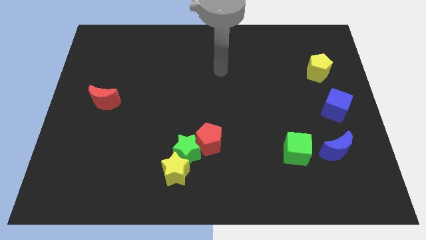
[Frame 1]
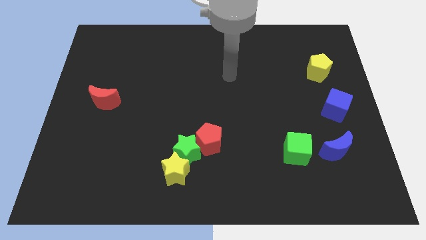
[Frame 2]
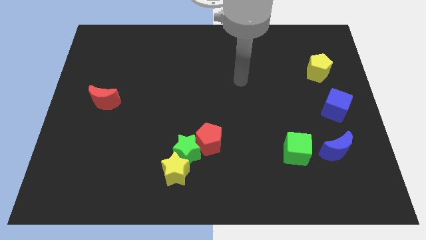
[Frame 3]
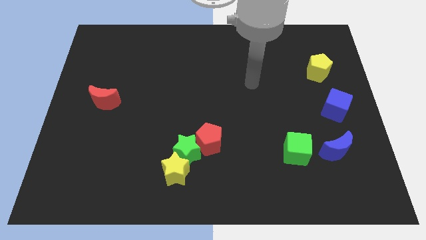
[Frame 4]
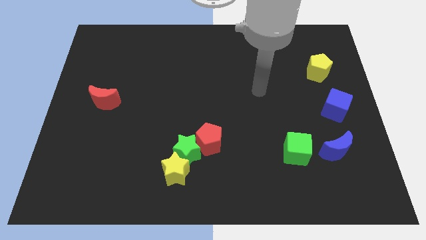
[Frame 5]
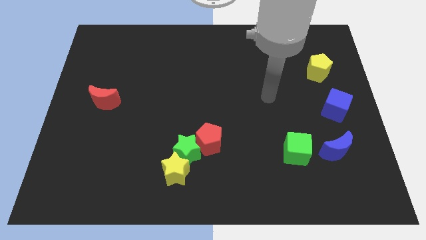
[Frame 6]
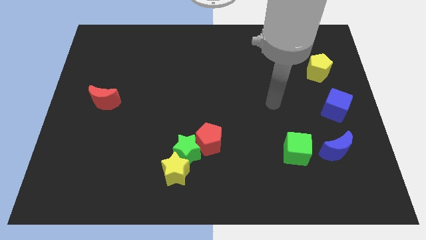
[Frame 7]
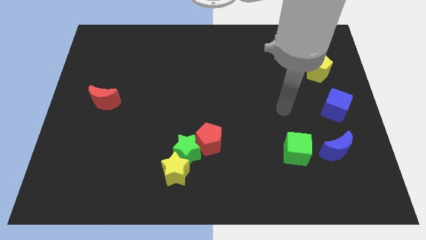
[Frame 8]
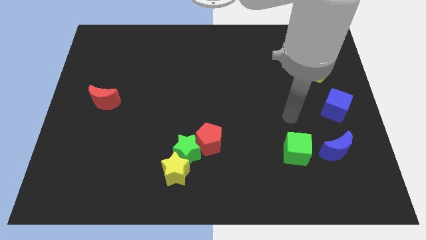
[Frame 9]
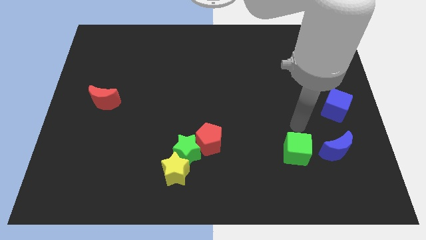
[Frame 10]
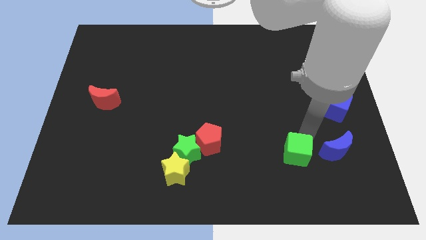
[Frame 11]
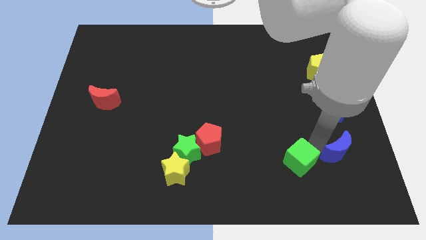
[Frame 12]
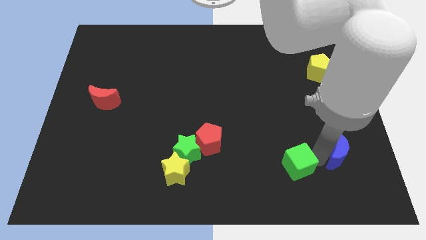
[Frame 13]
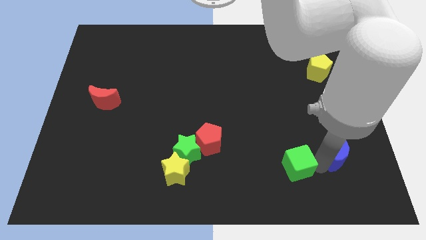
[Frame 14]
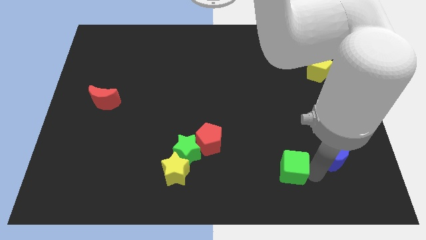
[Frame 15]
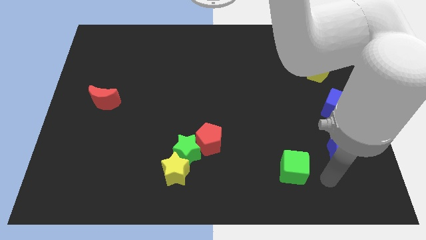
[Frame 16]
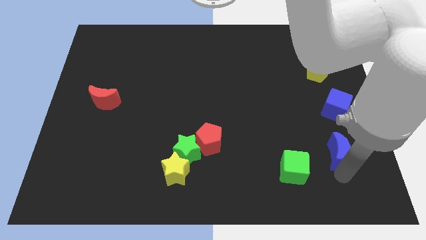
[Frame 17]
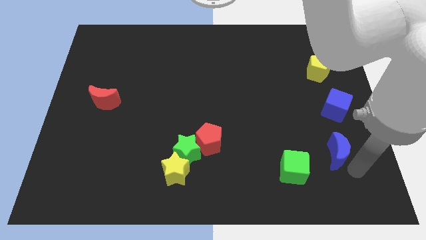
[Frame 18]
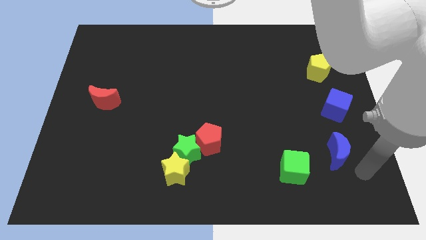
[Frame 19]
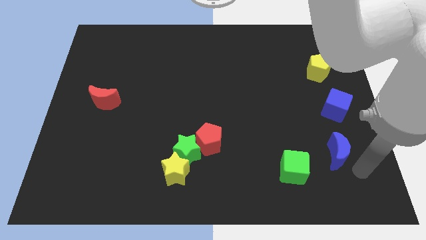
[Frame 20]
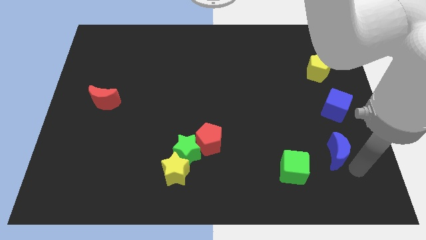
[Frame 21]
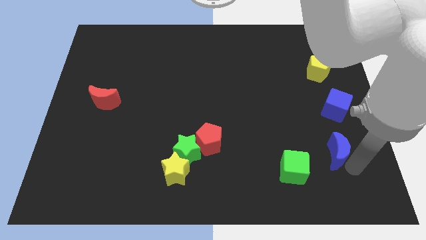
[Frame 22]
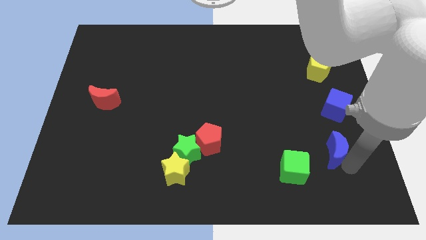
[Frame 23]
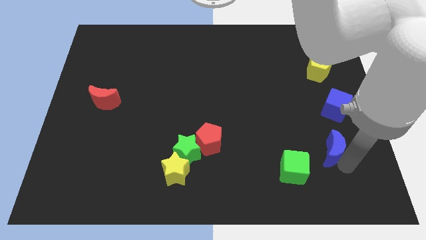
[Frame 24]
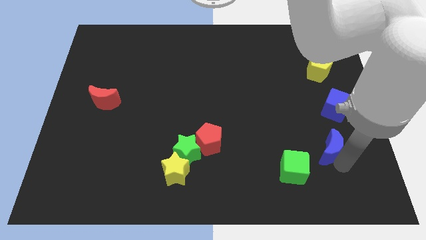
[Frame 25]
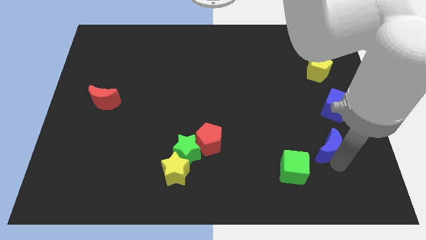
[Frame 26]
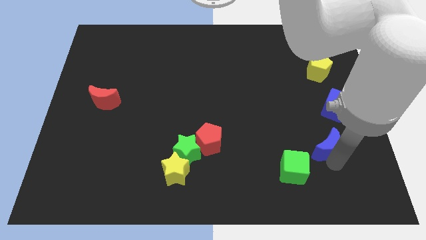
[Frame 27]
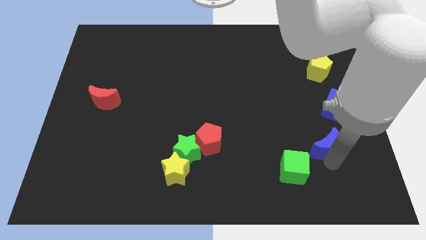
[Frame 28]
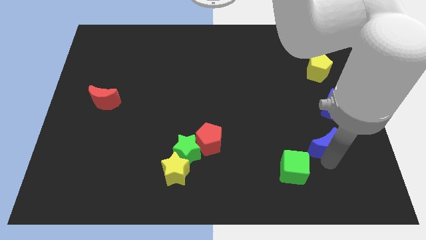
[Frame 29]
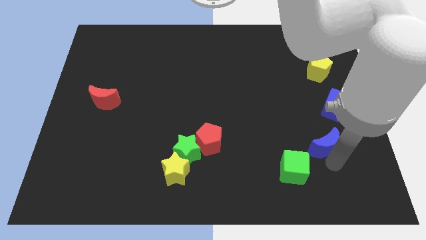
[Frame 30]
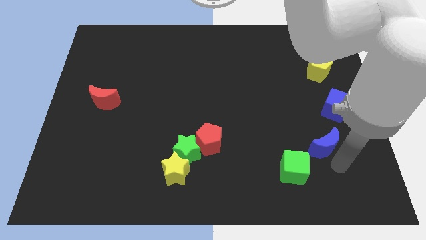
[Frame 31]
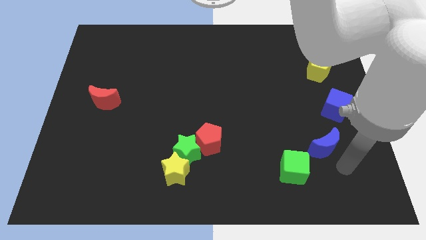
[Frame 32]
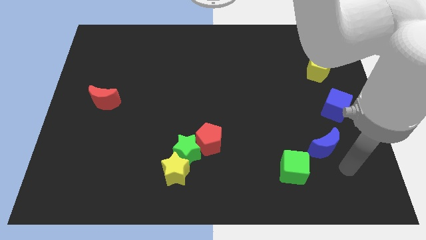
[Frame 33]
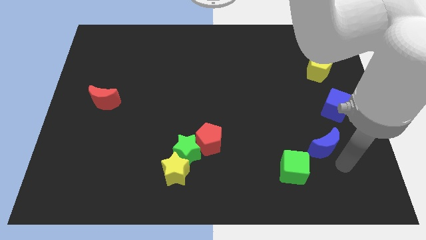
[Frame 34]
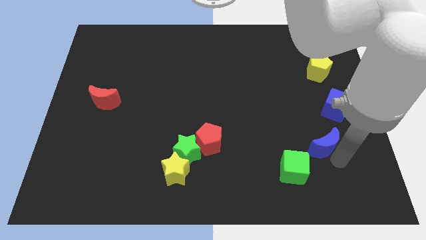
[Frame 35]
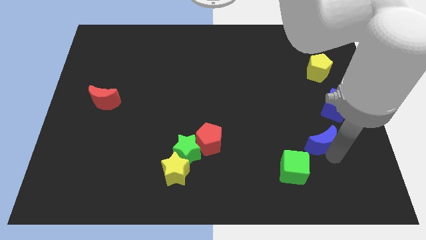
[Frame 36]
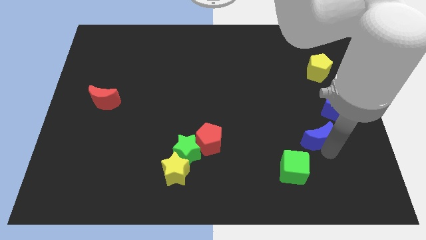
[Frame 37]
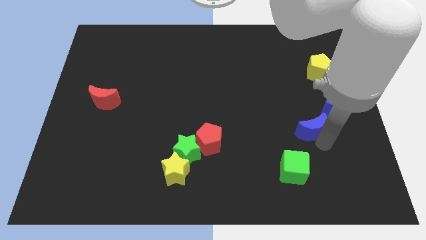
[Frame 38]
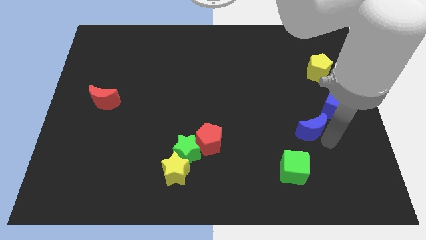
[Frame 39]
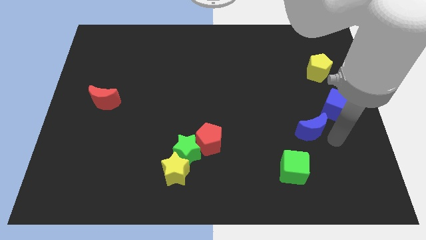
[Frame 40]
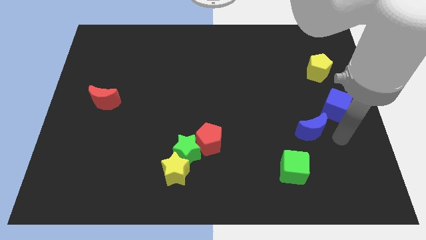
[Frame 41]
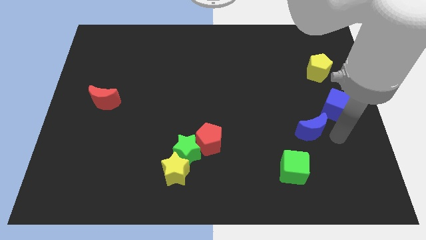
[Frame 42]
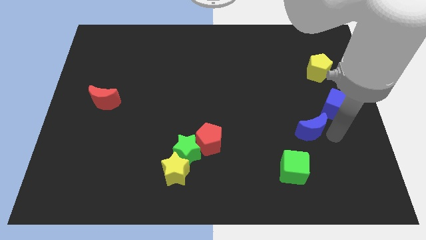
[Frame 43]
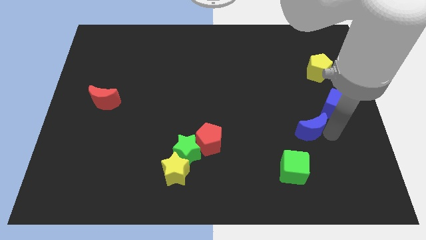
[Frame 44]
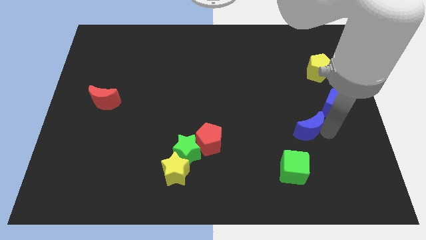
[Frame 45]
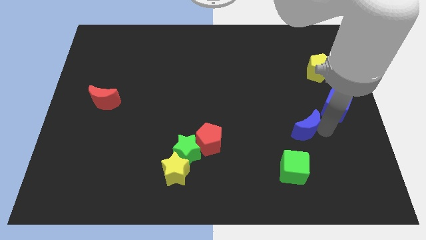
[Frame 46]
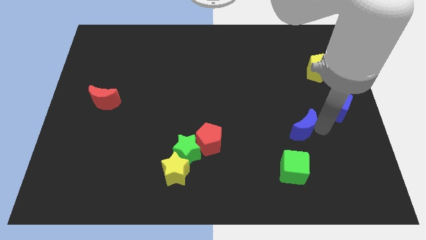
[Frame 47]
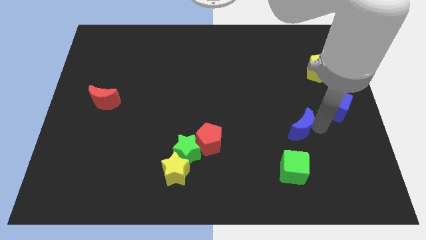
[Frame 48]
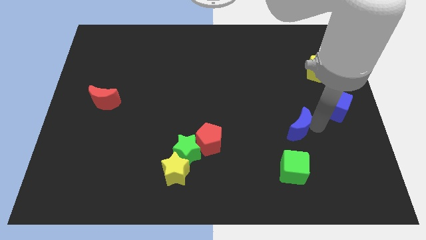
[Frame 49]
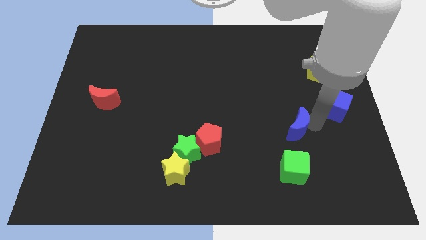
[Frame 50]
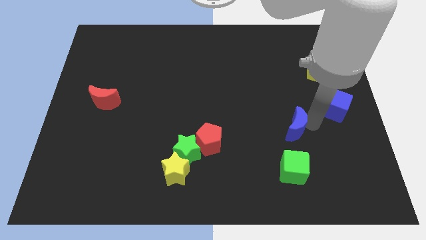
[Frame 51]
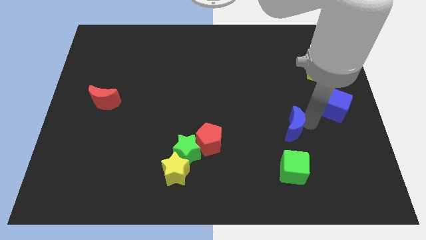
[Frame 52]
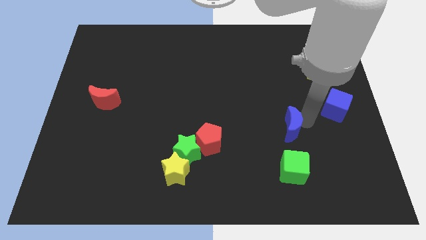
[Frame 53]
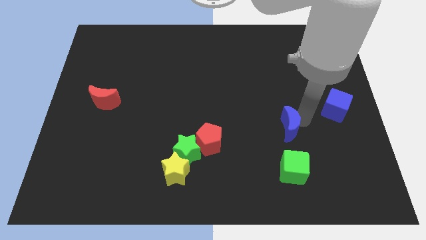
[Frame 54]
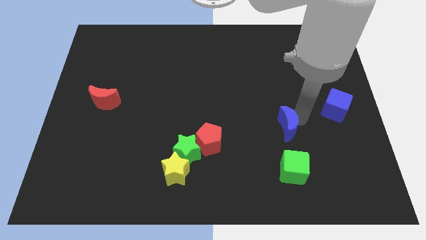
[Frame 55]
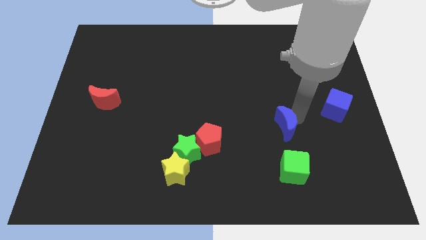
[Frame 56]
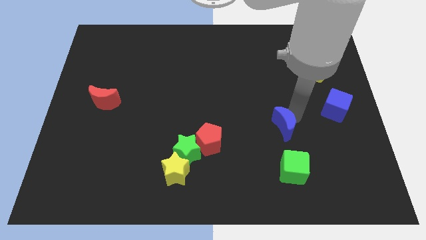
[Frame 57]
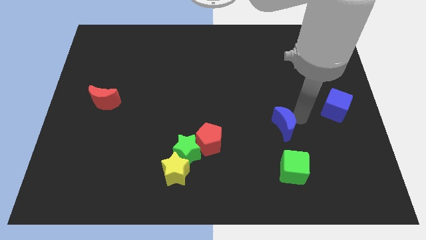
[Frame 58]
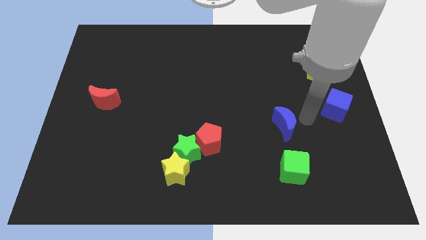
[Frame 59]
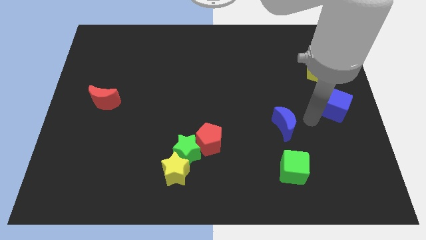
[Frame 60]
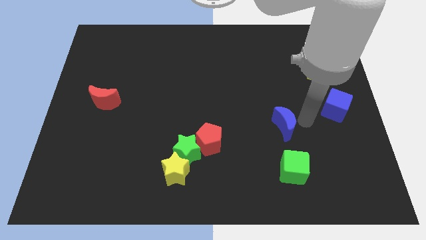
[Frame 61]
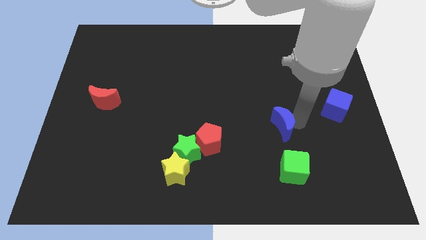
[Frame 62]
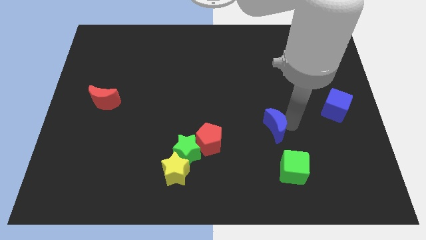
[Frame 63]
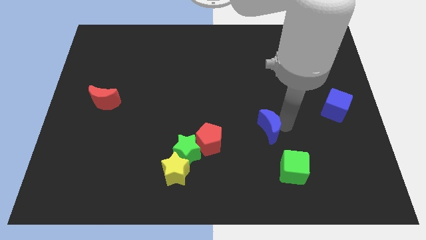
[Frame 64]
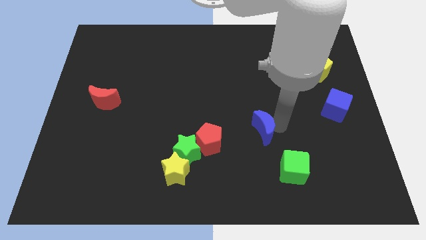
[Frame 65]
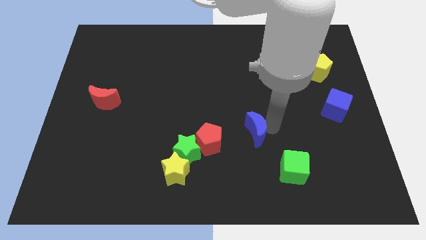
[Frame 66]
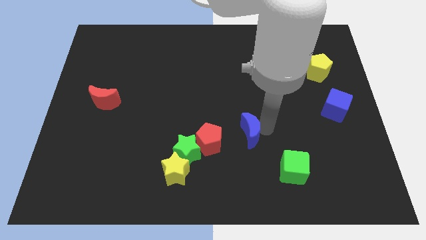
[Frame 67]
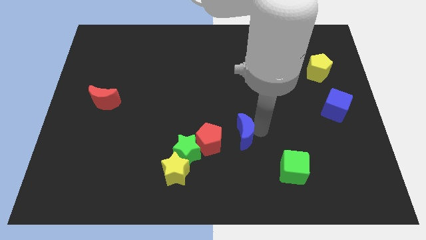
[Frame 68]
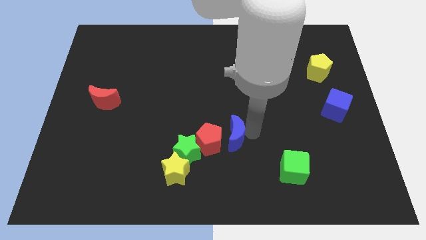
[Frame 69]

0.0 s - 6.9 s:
put the blue moon towards the red pentagon

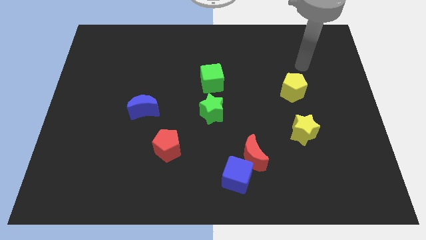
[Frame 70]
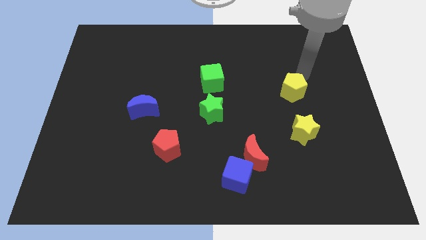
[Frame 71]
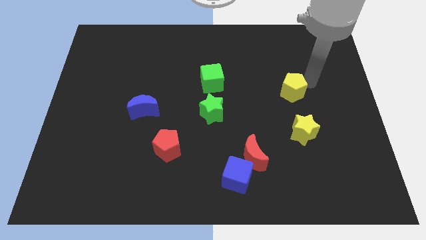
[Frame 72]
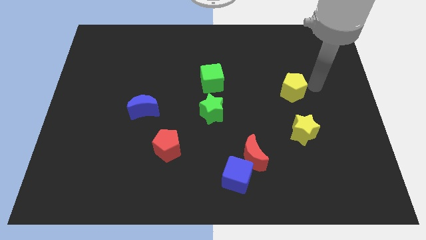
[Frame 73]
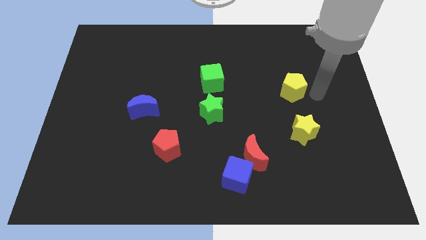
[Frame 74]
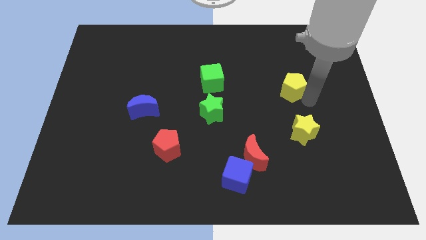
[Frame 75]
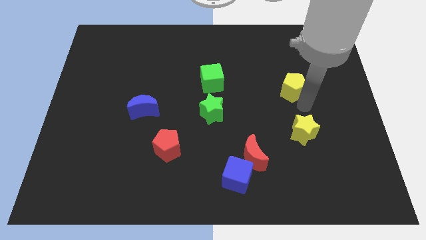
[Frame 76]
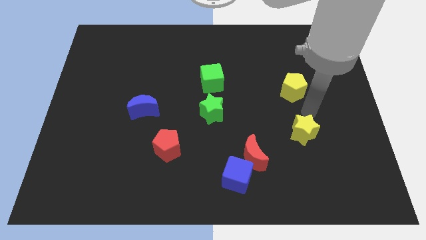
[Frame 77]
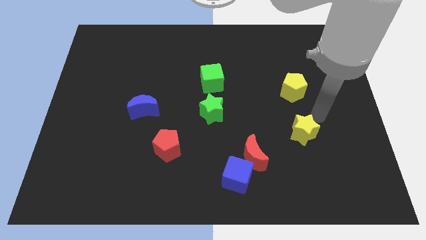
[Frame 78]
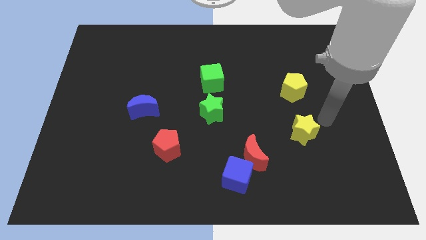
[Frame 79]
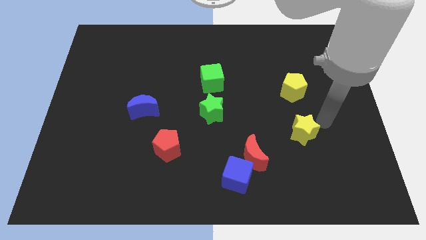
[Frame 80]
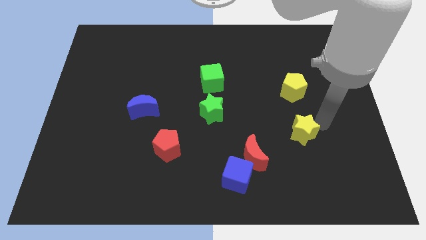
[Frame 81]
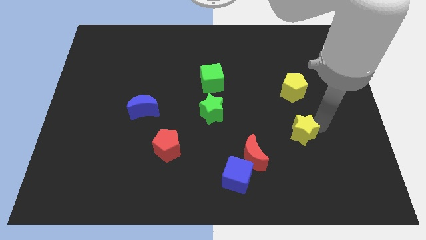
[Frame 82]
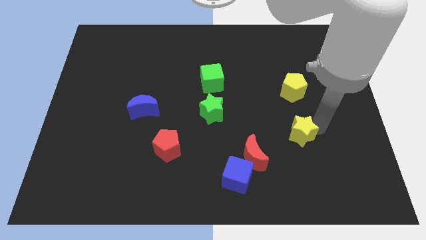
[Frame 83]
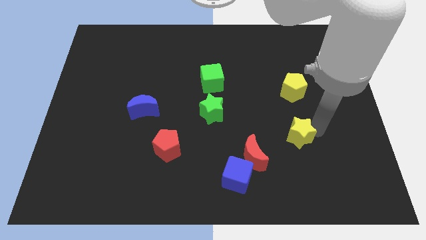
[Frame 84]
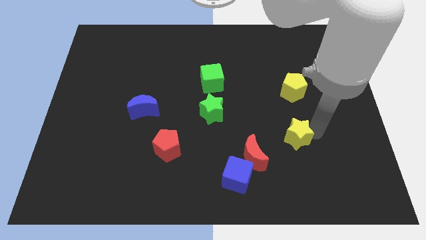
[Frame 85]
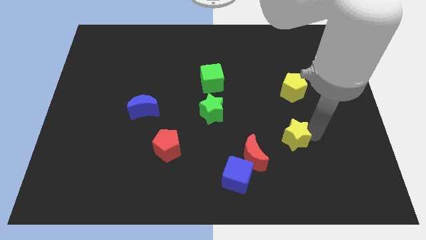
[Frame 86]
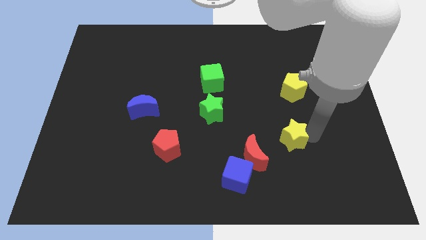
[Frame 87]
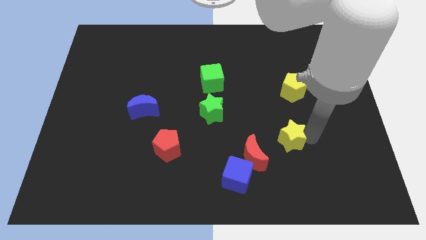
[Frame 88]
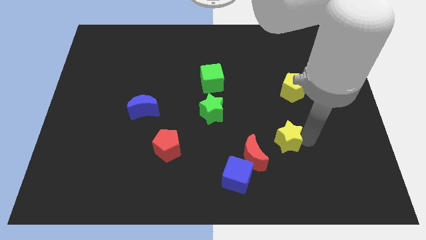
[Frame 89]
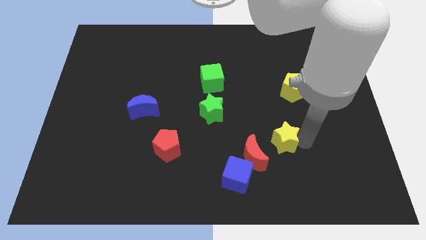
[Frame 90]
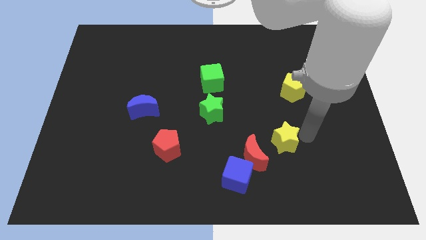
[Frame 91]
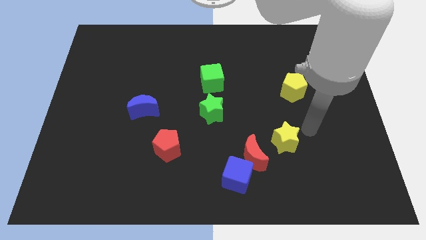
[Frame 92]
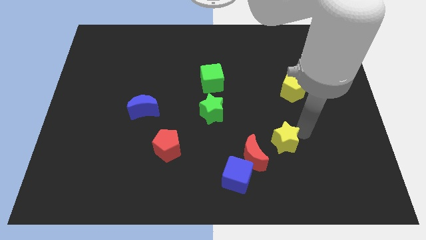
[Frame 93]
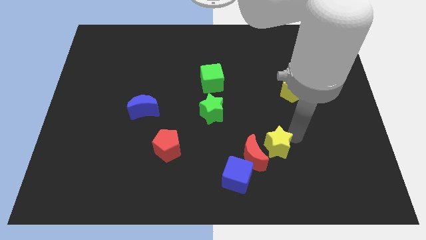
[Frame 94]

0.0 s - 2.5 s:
push the yellow star close to the red moon
